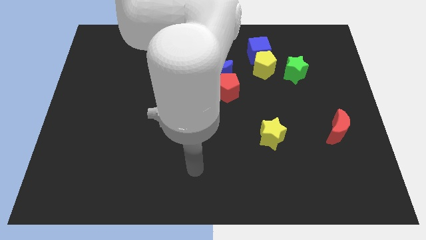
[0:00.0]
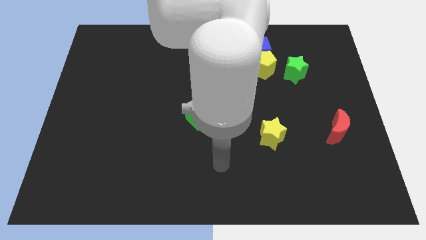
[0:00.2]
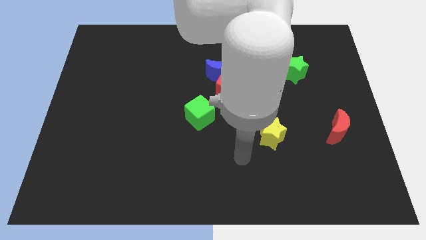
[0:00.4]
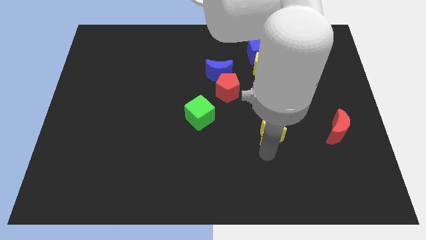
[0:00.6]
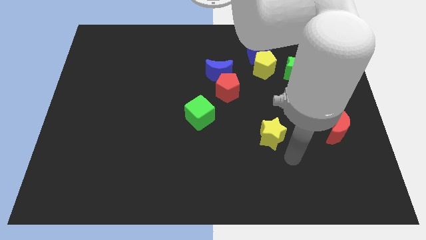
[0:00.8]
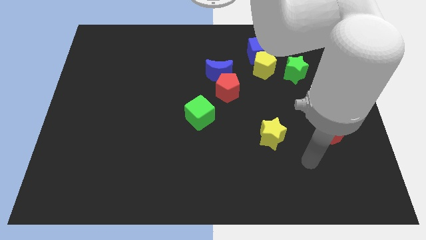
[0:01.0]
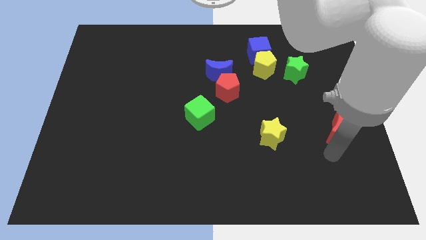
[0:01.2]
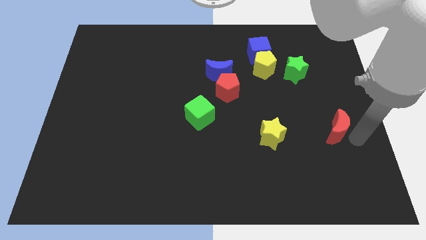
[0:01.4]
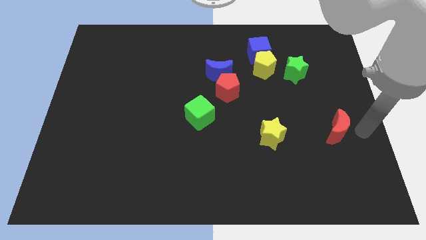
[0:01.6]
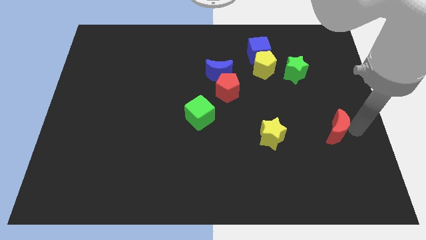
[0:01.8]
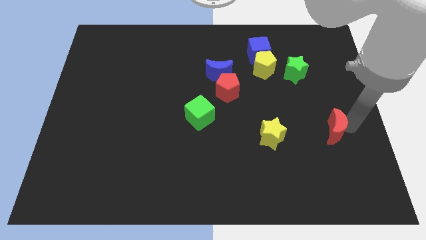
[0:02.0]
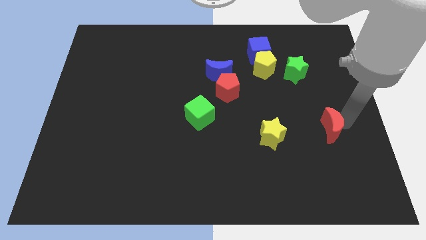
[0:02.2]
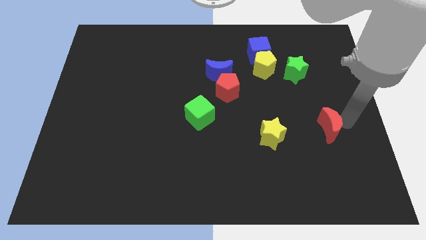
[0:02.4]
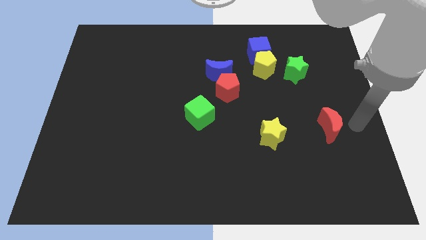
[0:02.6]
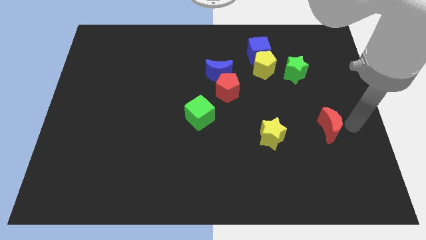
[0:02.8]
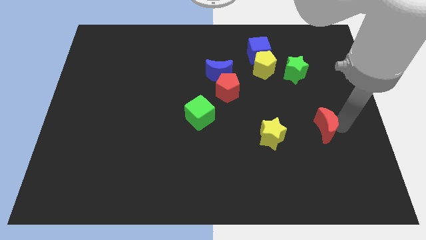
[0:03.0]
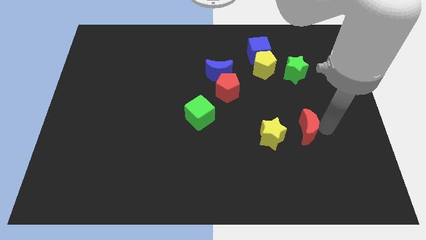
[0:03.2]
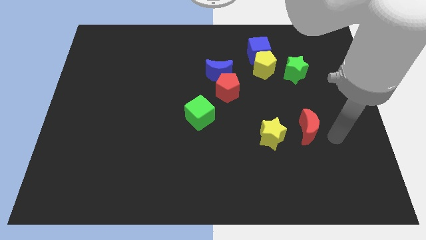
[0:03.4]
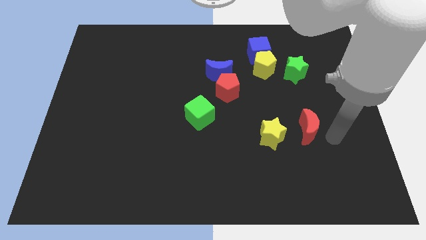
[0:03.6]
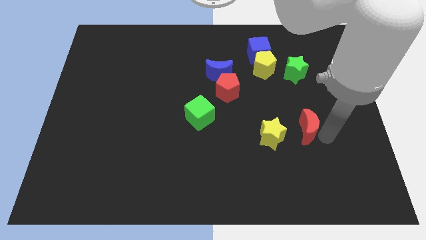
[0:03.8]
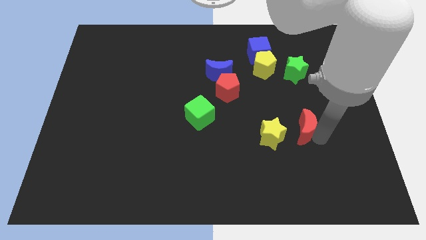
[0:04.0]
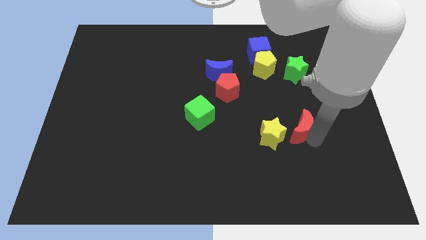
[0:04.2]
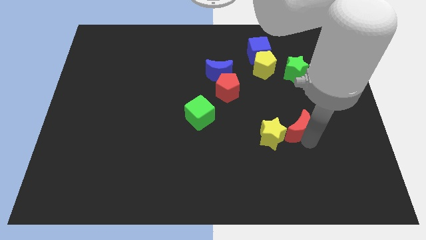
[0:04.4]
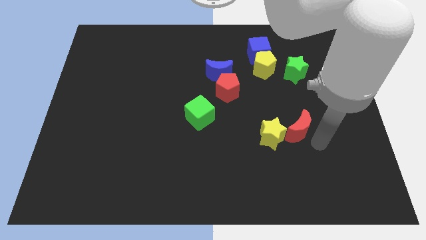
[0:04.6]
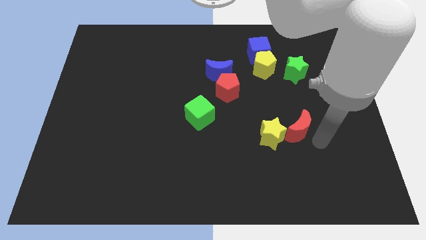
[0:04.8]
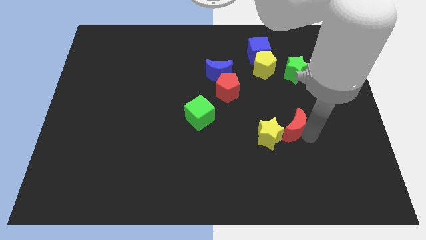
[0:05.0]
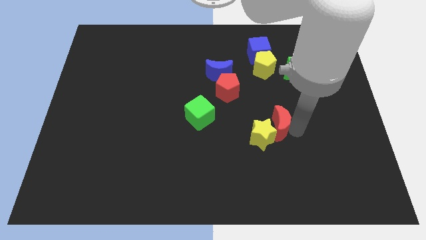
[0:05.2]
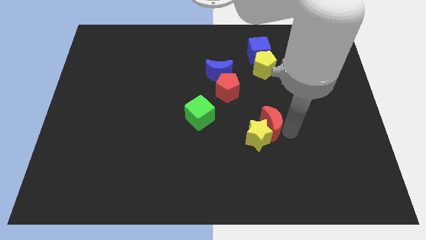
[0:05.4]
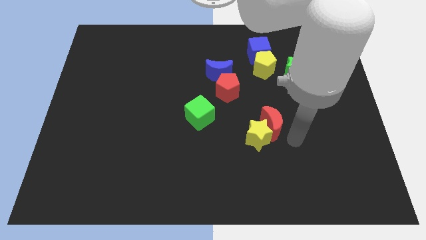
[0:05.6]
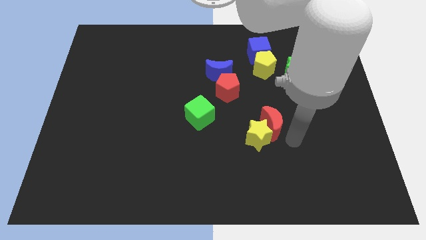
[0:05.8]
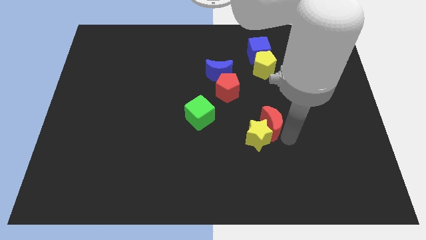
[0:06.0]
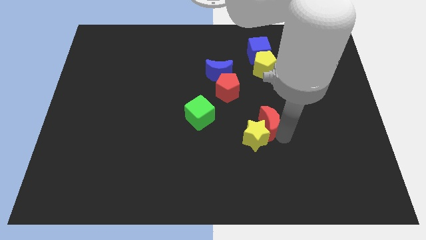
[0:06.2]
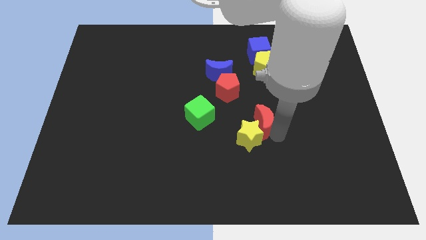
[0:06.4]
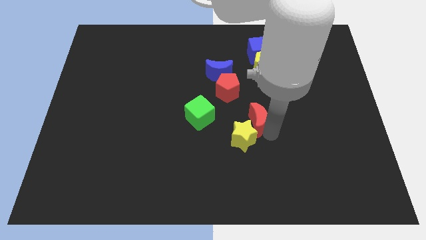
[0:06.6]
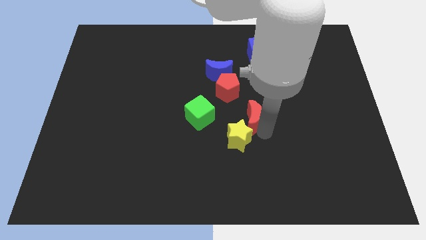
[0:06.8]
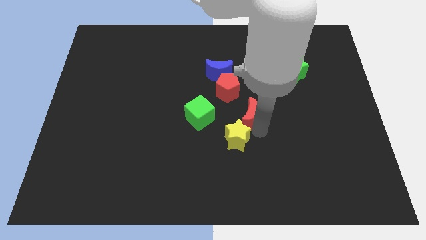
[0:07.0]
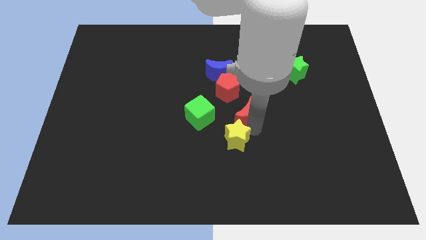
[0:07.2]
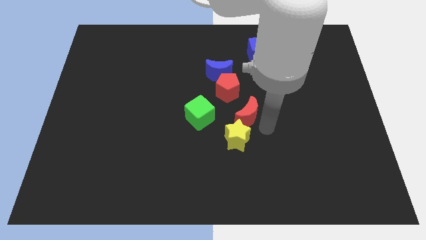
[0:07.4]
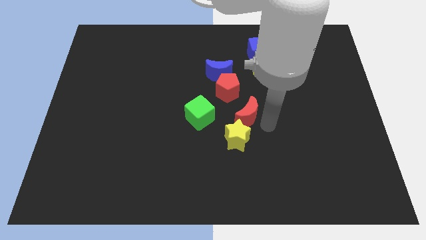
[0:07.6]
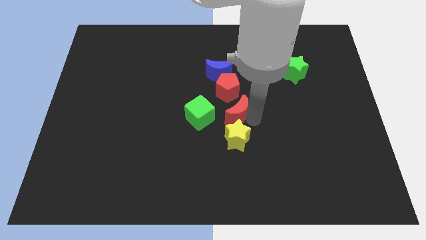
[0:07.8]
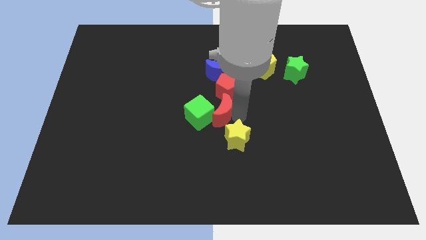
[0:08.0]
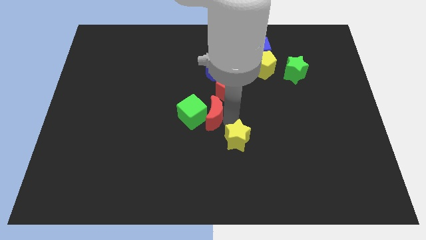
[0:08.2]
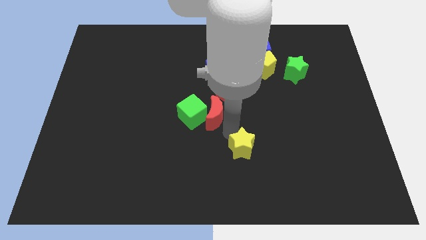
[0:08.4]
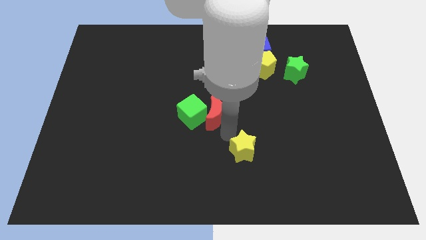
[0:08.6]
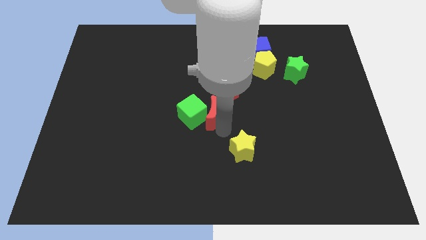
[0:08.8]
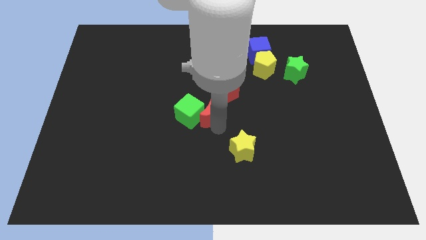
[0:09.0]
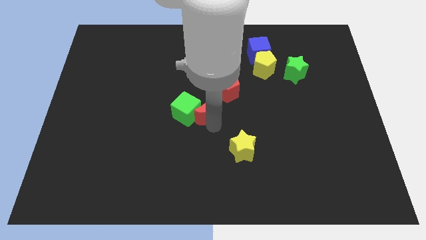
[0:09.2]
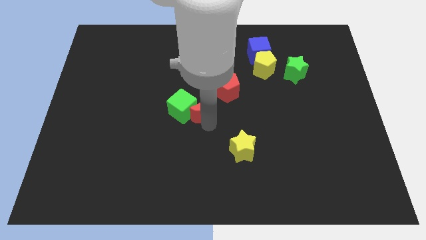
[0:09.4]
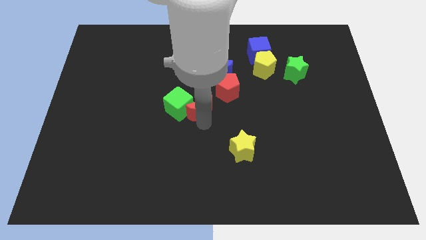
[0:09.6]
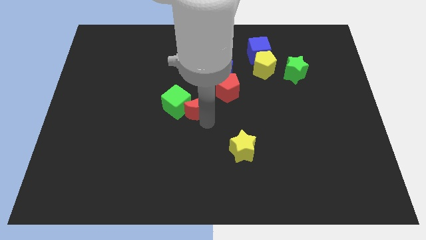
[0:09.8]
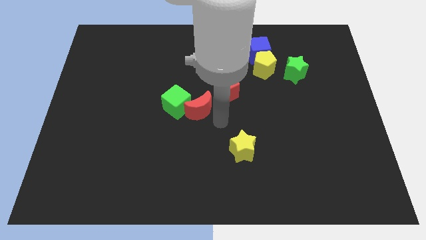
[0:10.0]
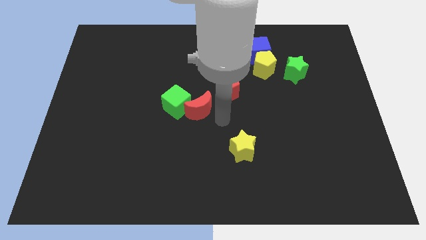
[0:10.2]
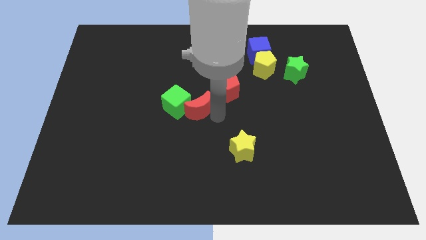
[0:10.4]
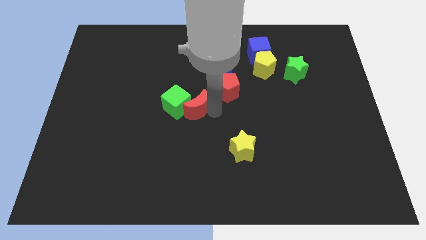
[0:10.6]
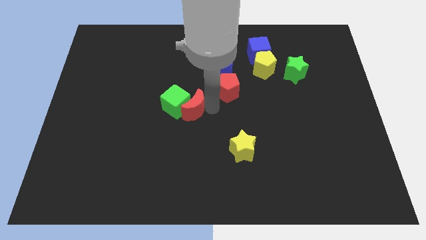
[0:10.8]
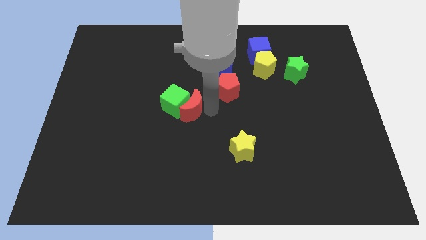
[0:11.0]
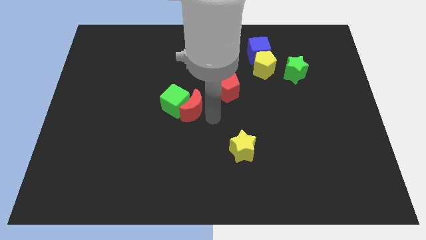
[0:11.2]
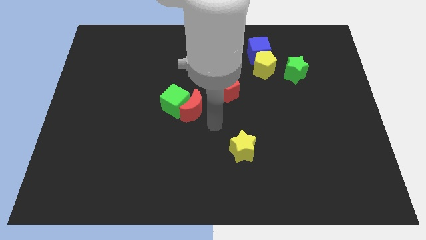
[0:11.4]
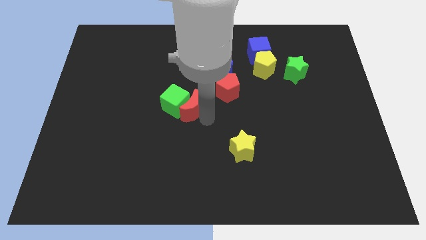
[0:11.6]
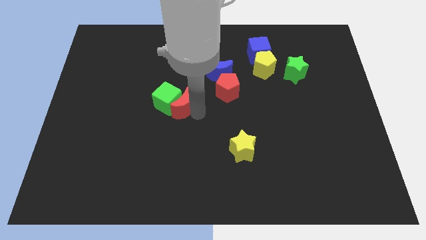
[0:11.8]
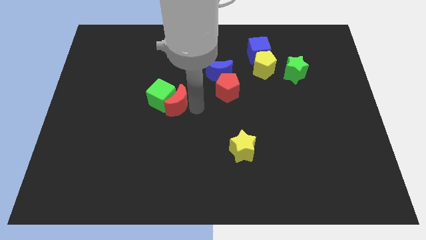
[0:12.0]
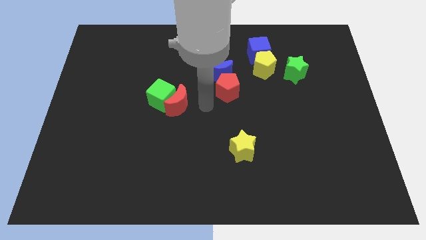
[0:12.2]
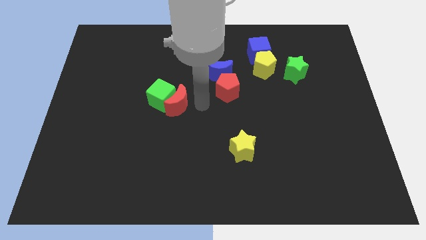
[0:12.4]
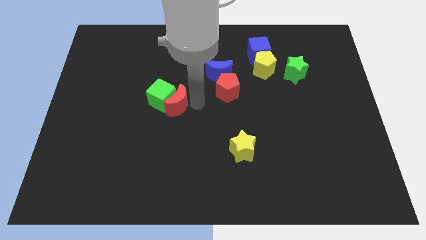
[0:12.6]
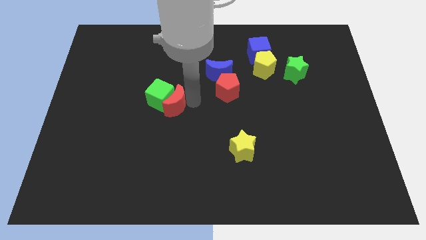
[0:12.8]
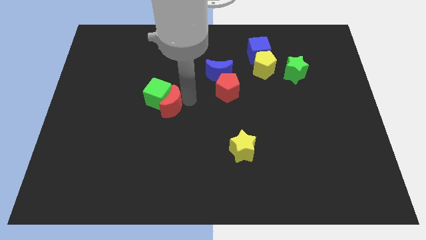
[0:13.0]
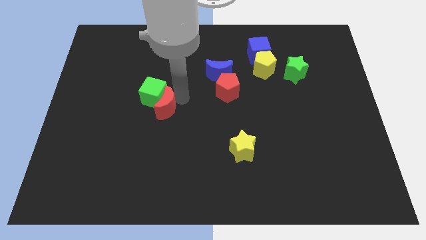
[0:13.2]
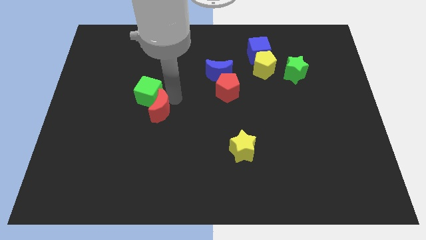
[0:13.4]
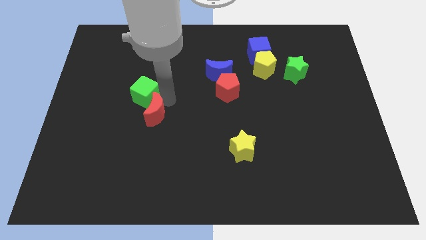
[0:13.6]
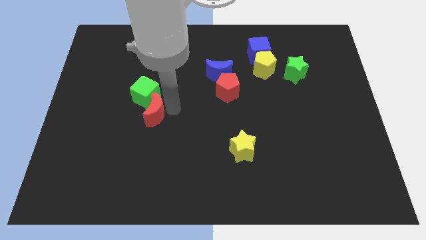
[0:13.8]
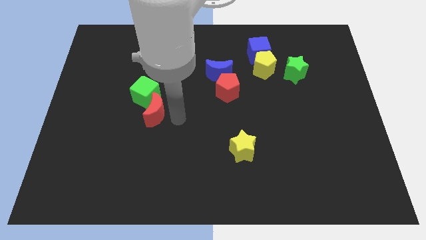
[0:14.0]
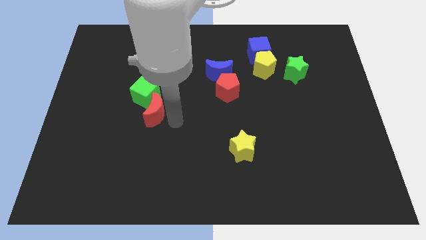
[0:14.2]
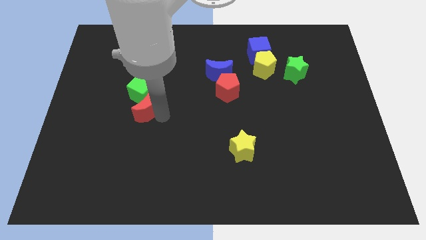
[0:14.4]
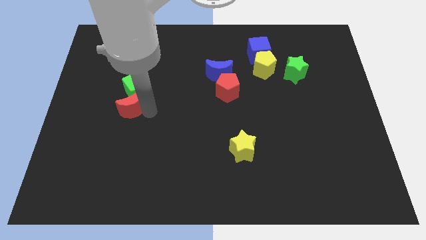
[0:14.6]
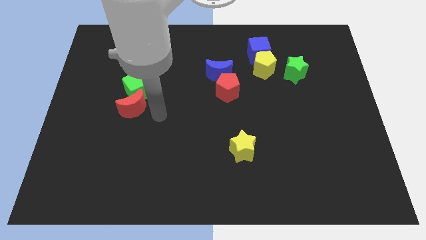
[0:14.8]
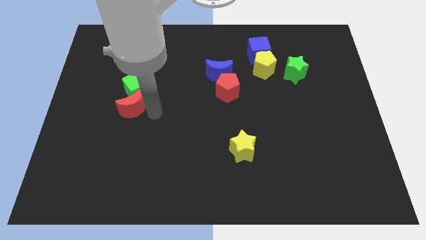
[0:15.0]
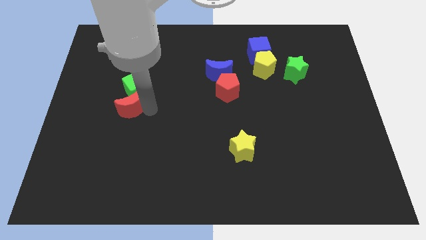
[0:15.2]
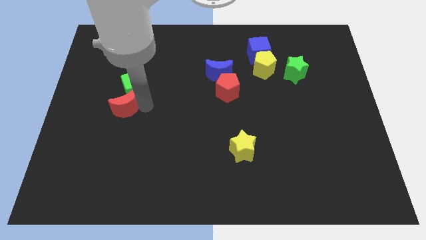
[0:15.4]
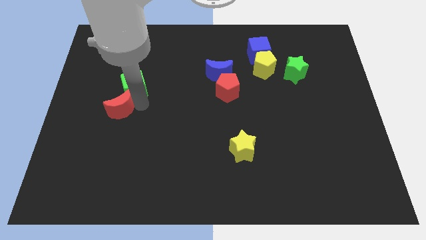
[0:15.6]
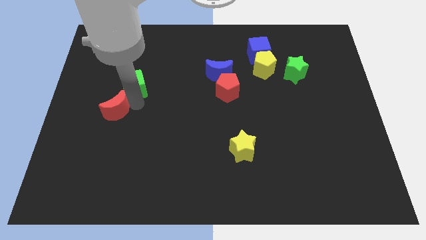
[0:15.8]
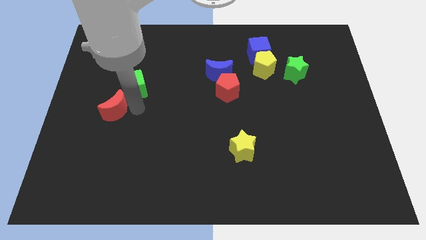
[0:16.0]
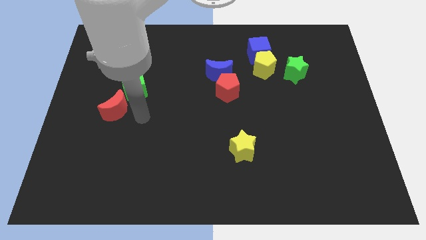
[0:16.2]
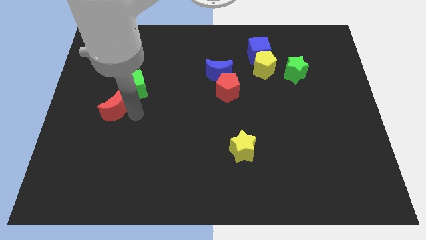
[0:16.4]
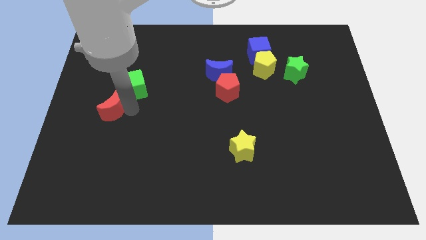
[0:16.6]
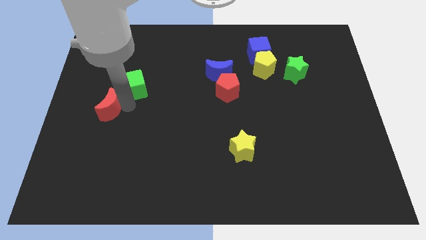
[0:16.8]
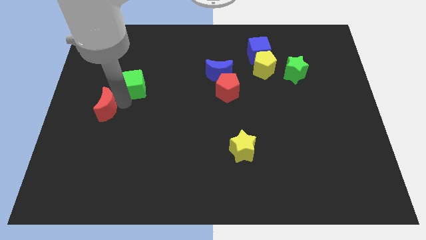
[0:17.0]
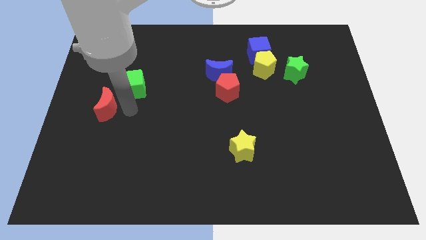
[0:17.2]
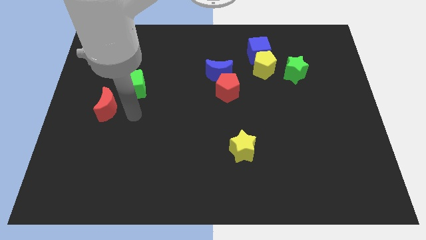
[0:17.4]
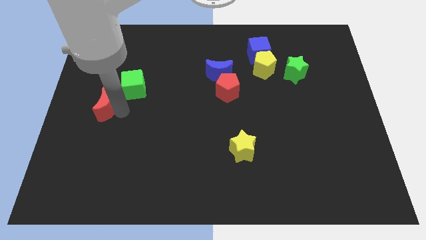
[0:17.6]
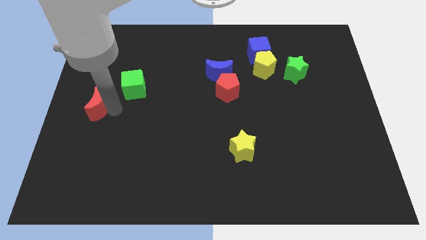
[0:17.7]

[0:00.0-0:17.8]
move the red moon to the left side of the board
